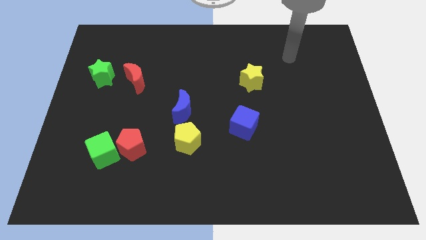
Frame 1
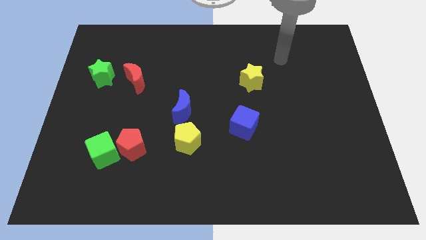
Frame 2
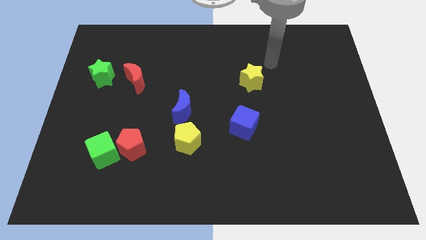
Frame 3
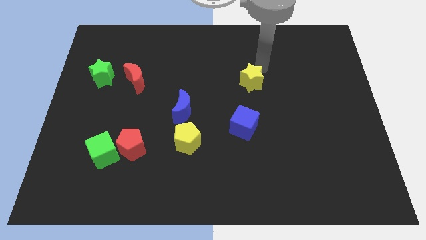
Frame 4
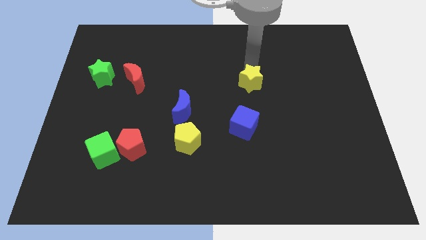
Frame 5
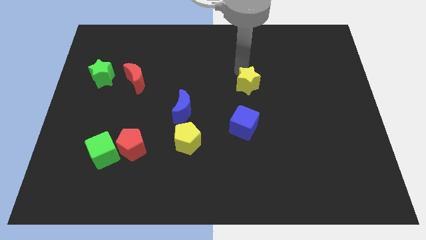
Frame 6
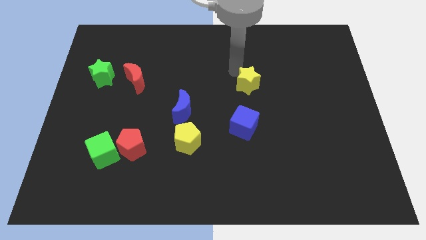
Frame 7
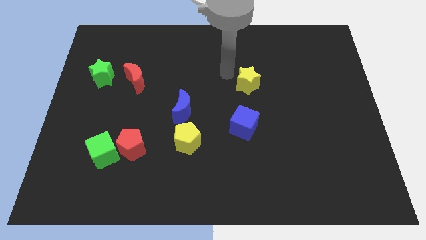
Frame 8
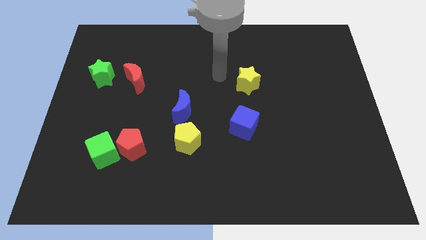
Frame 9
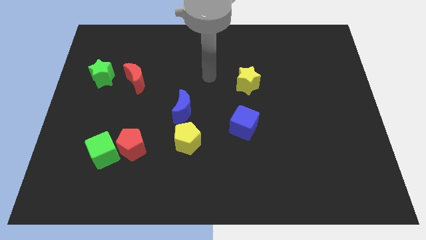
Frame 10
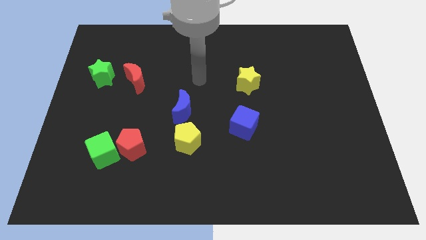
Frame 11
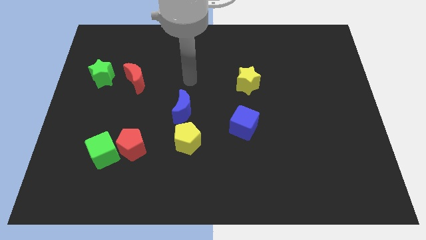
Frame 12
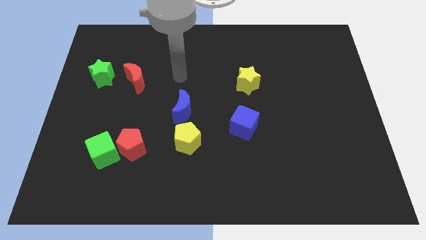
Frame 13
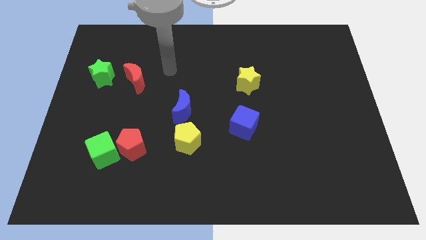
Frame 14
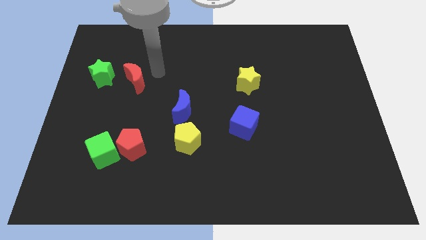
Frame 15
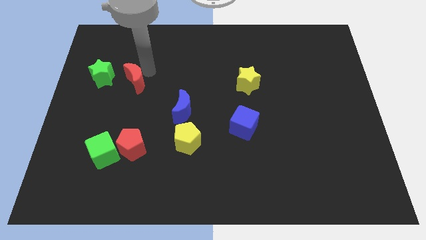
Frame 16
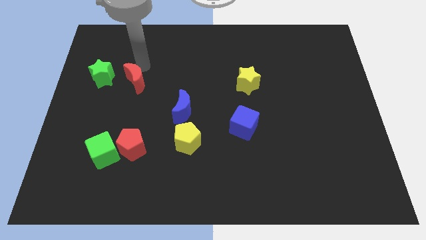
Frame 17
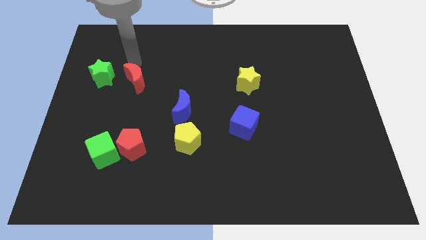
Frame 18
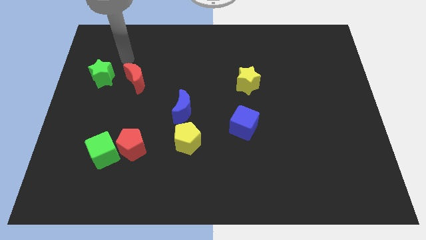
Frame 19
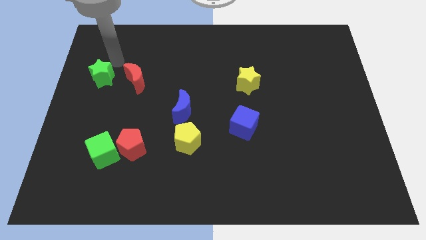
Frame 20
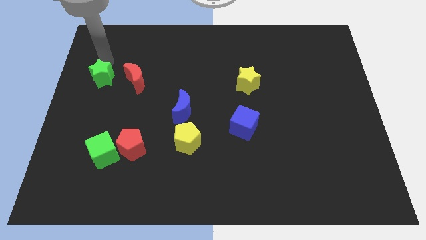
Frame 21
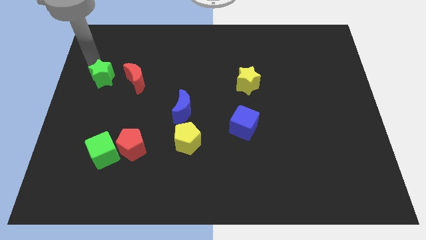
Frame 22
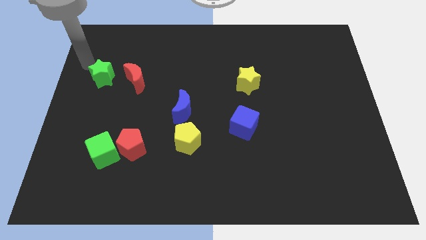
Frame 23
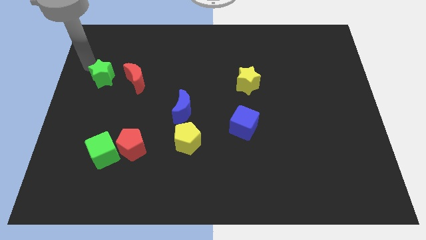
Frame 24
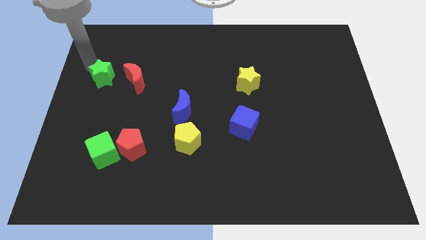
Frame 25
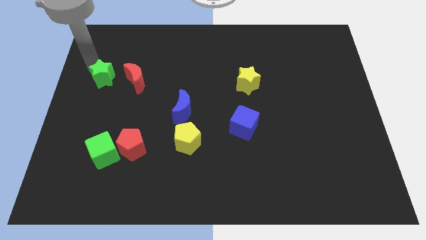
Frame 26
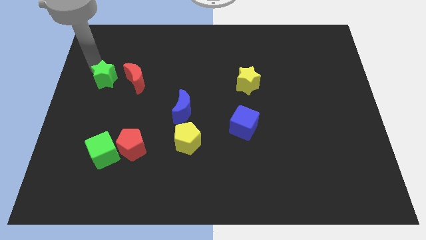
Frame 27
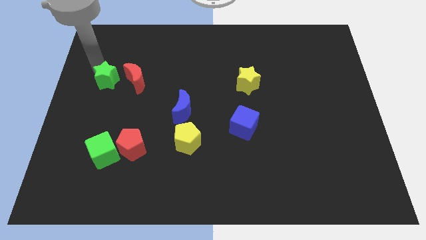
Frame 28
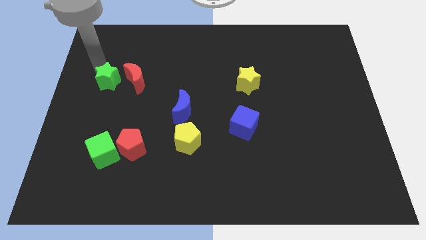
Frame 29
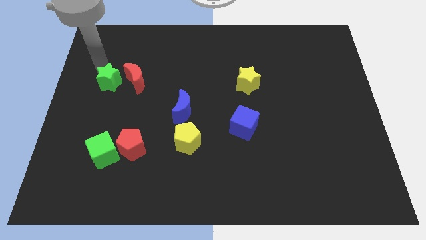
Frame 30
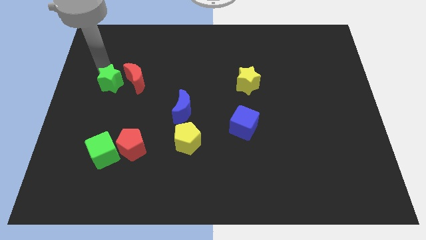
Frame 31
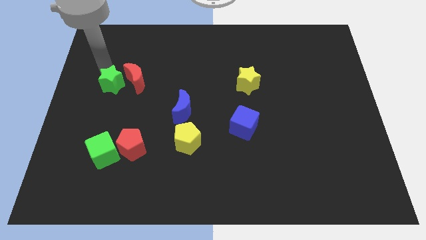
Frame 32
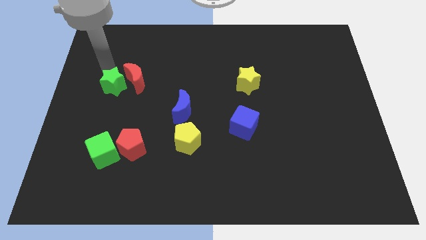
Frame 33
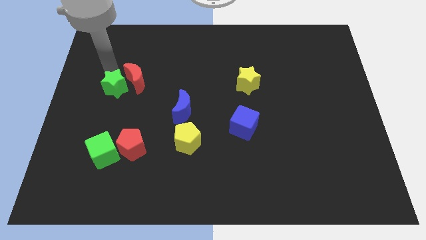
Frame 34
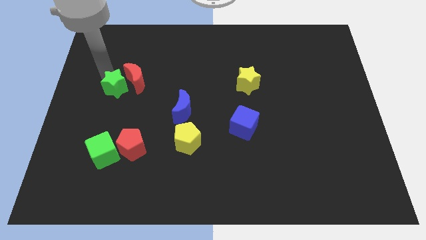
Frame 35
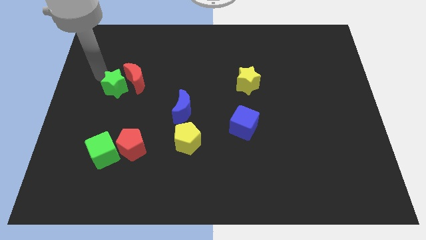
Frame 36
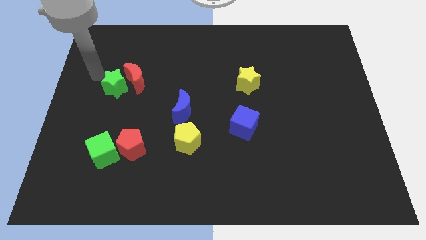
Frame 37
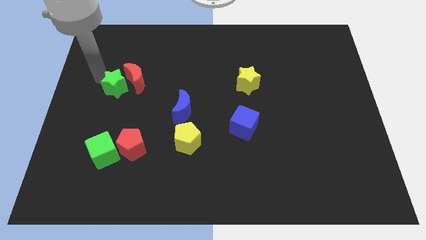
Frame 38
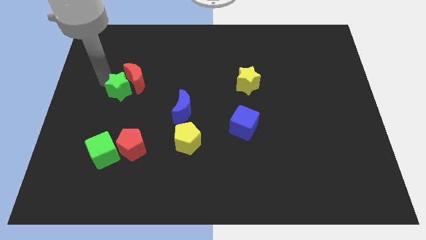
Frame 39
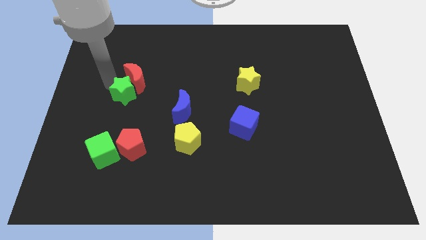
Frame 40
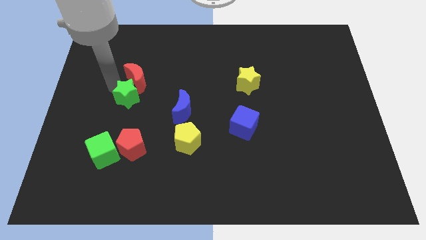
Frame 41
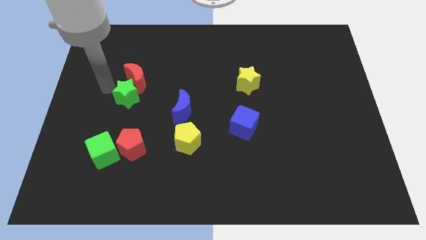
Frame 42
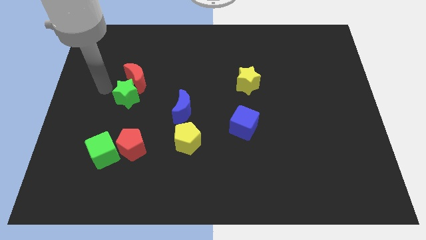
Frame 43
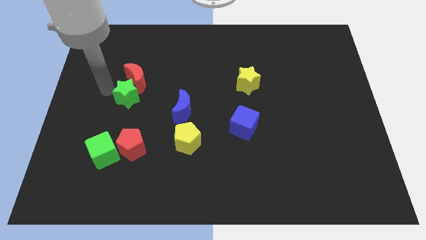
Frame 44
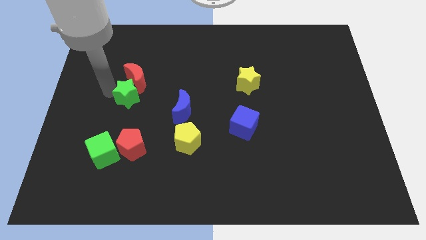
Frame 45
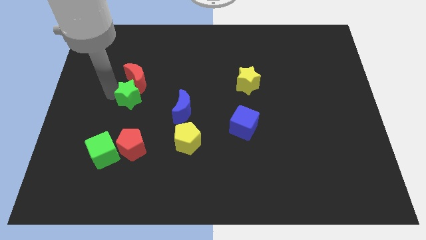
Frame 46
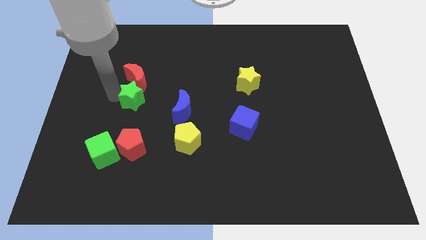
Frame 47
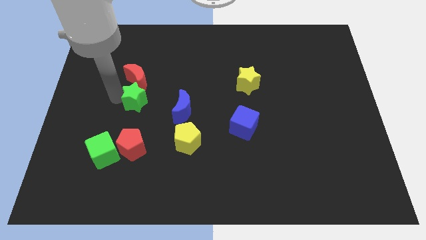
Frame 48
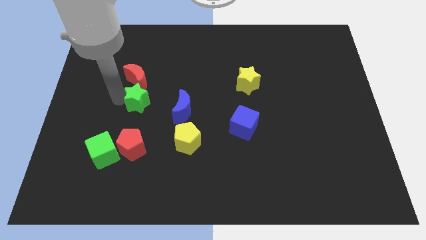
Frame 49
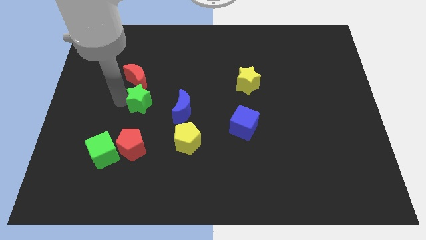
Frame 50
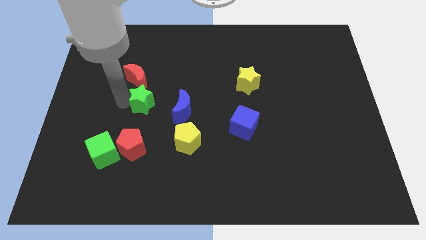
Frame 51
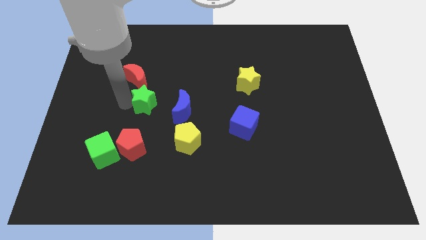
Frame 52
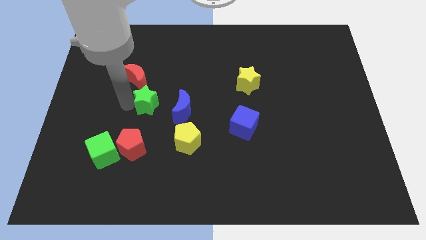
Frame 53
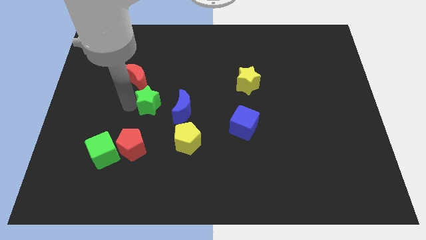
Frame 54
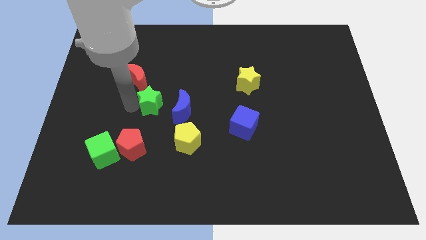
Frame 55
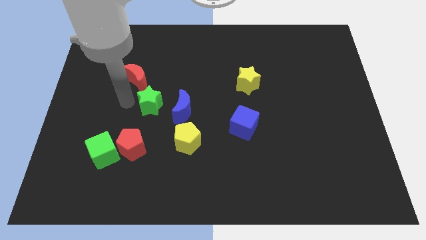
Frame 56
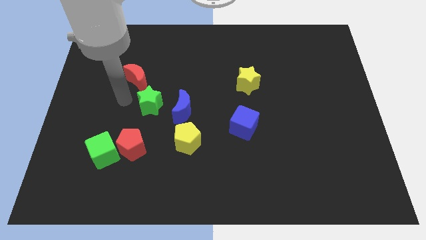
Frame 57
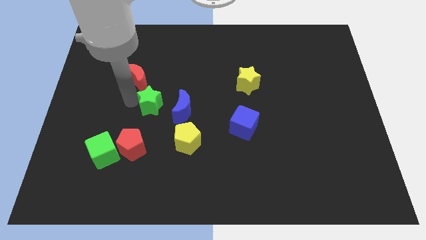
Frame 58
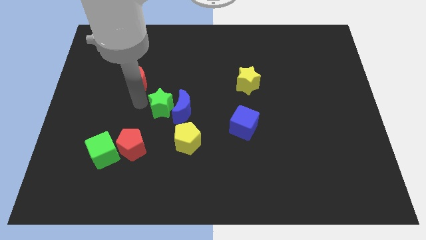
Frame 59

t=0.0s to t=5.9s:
put the green star close to the blue moon

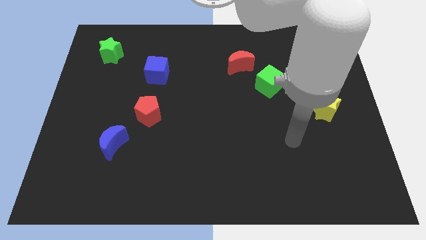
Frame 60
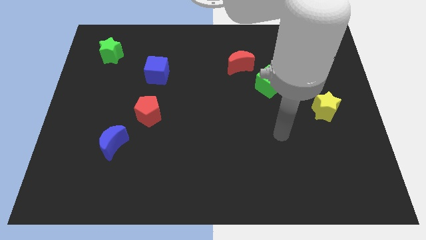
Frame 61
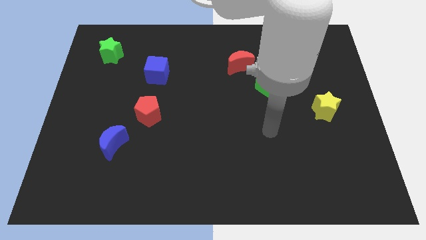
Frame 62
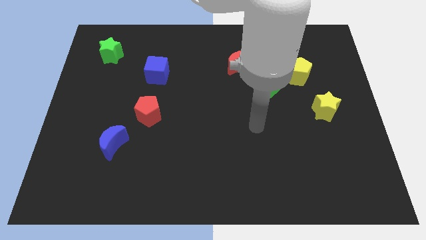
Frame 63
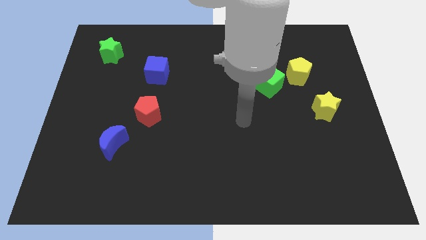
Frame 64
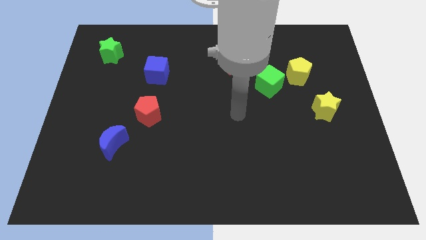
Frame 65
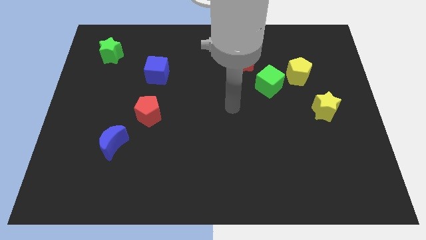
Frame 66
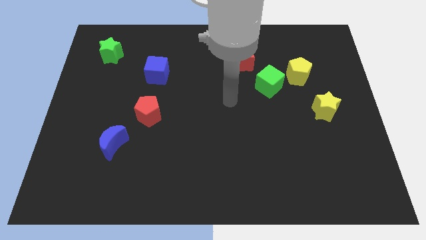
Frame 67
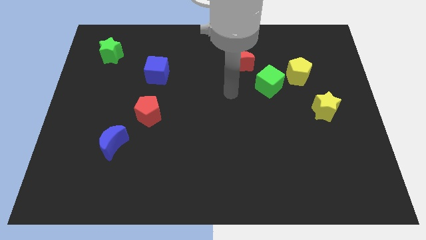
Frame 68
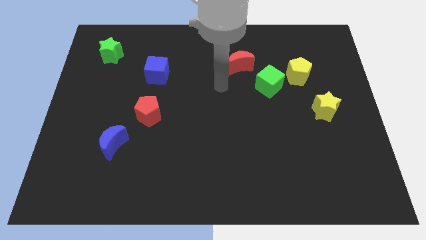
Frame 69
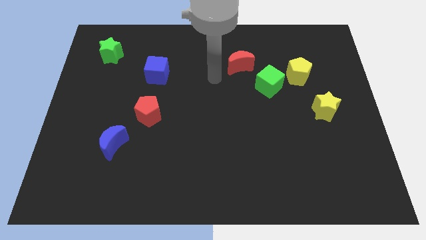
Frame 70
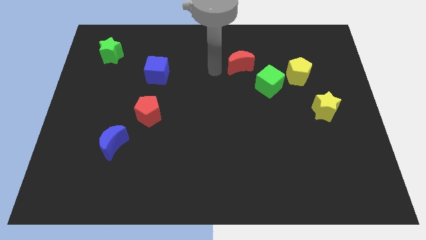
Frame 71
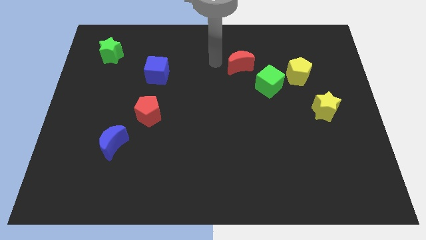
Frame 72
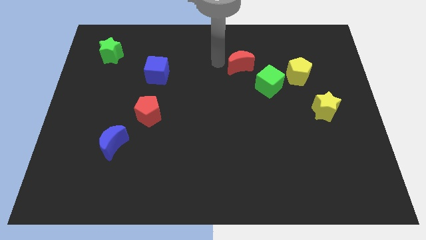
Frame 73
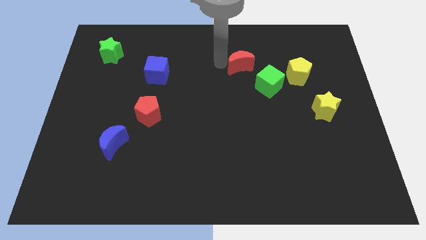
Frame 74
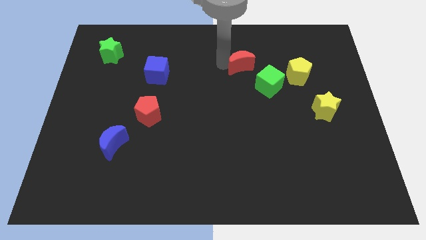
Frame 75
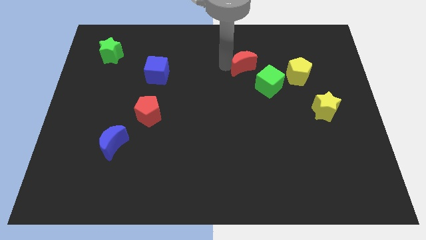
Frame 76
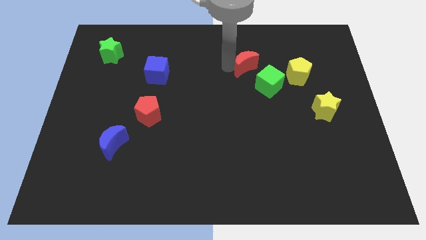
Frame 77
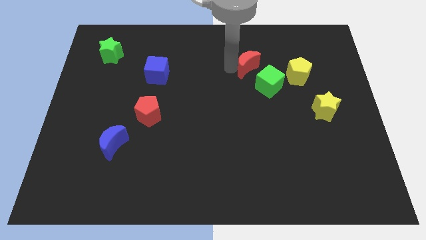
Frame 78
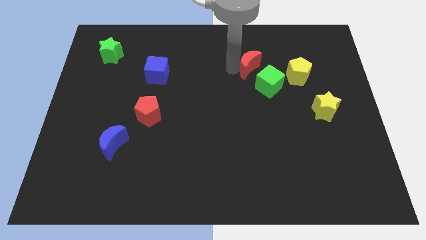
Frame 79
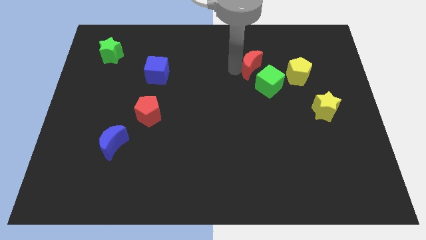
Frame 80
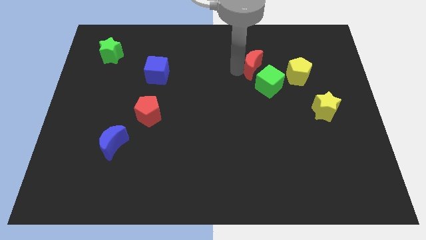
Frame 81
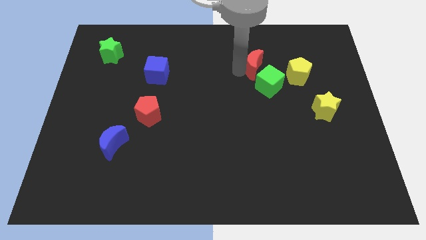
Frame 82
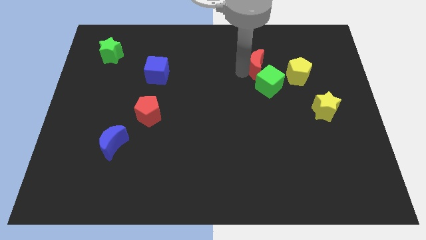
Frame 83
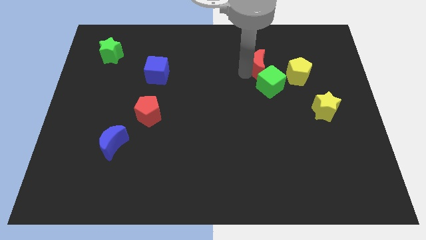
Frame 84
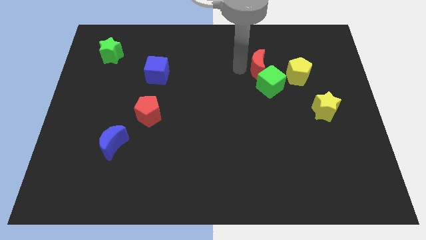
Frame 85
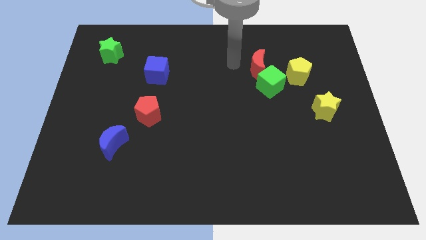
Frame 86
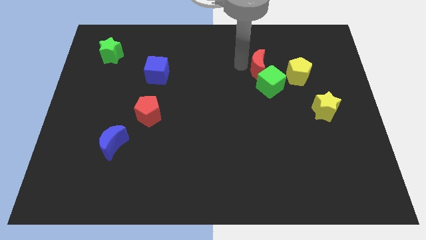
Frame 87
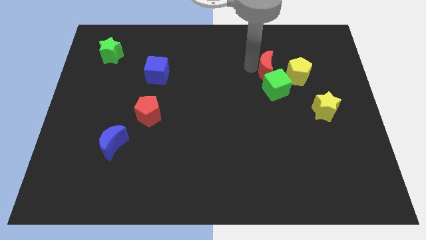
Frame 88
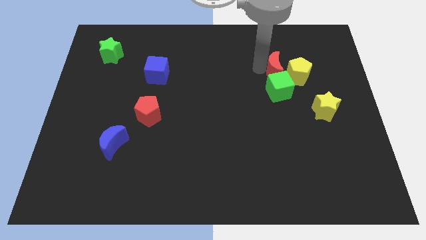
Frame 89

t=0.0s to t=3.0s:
move the red moon to the yellow pentagon
